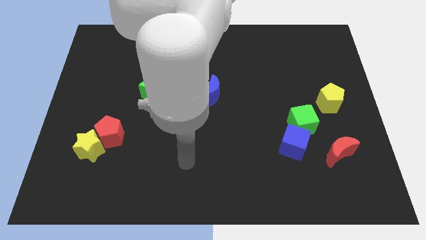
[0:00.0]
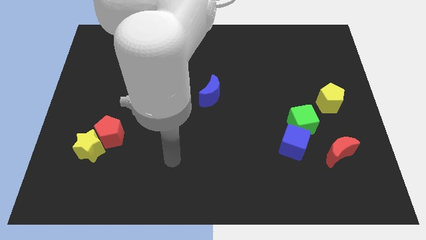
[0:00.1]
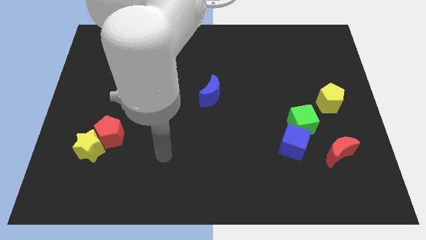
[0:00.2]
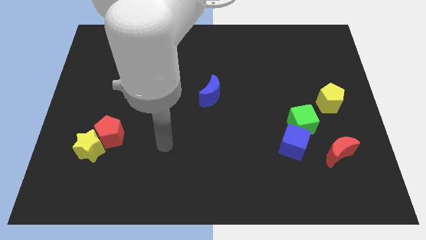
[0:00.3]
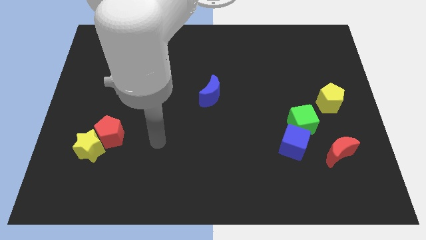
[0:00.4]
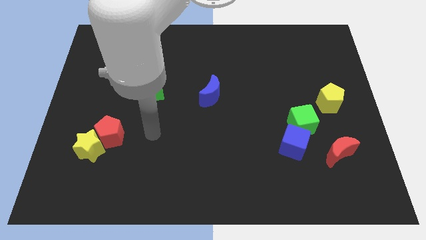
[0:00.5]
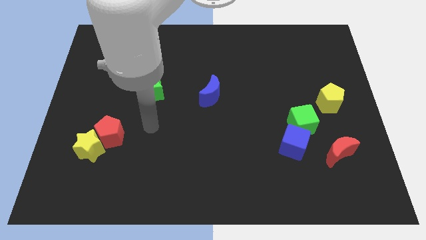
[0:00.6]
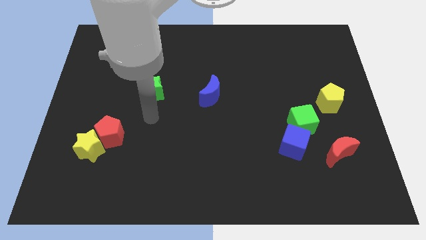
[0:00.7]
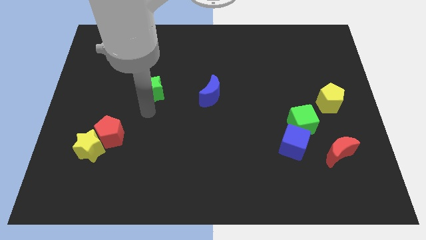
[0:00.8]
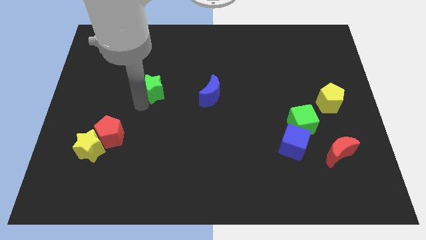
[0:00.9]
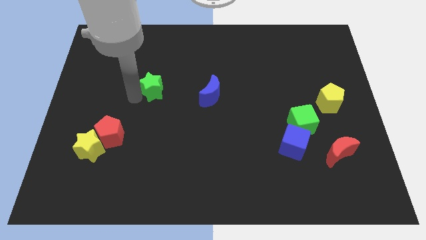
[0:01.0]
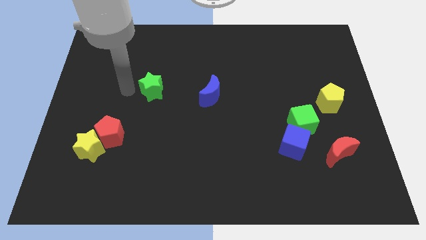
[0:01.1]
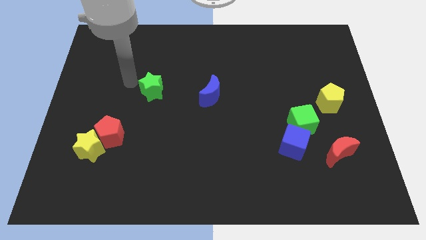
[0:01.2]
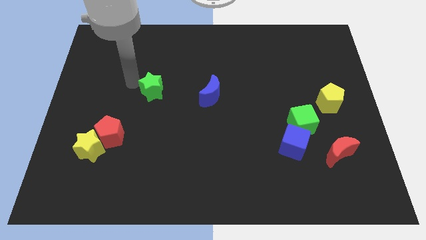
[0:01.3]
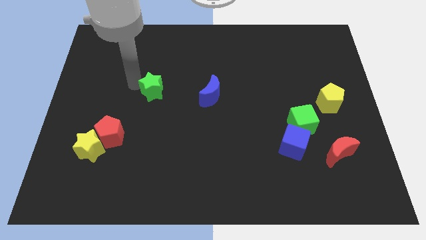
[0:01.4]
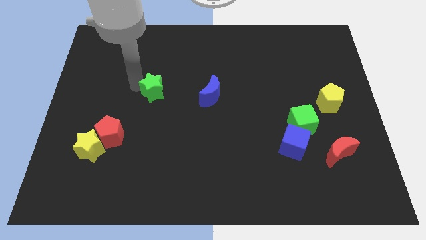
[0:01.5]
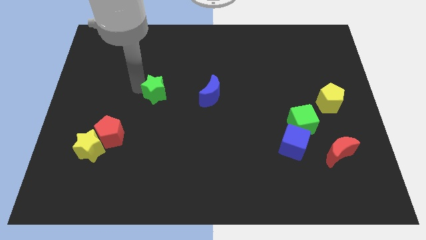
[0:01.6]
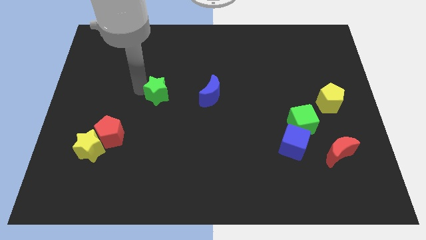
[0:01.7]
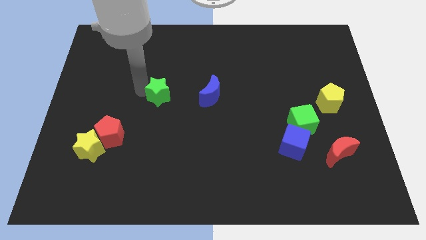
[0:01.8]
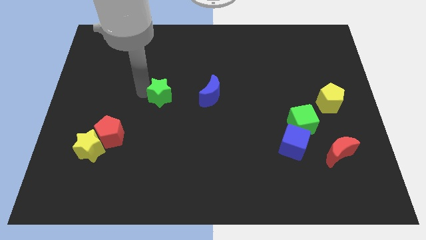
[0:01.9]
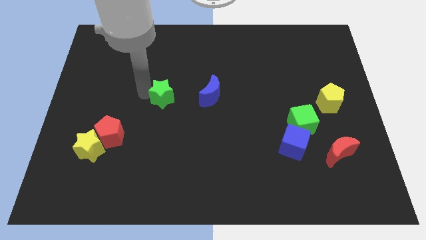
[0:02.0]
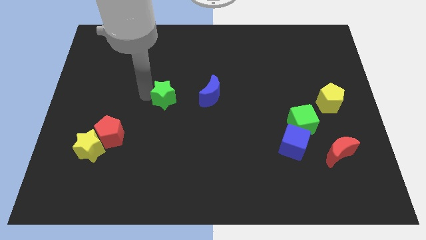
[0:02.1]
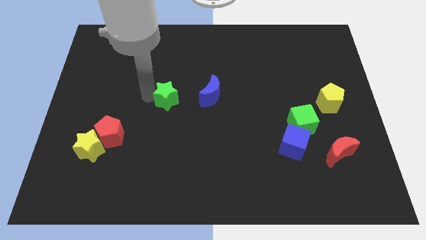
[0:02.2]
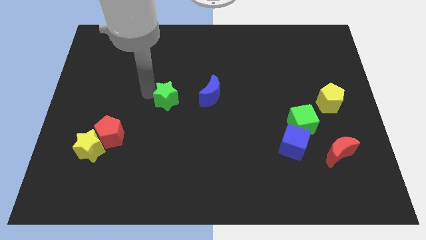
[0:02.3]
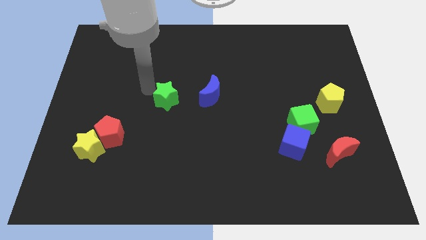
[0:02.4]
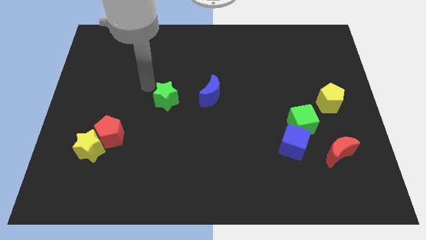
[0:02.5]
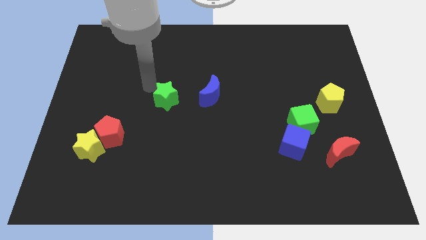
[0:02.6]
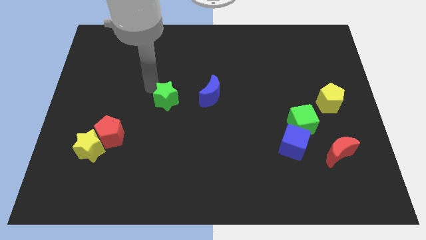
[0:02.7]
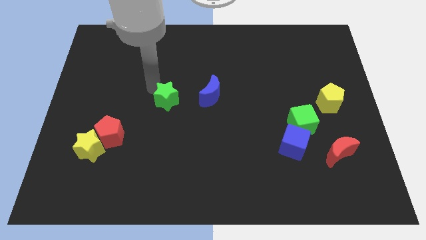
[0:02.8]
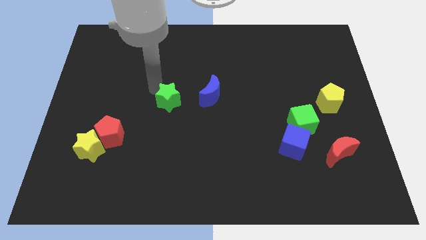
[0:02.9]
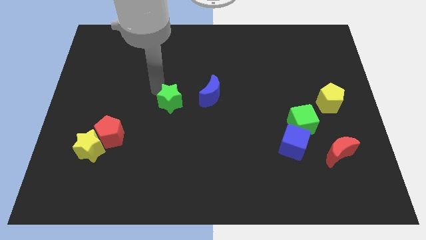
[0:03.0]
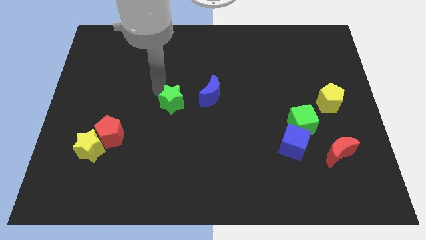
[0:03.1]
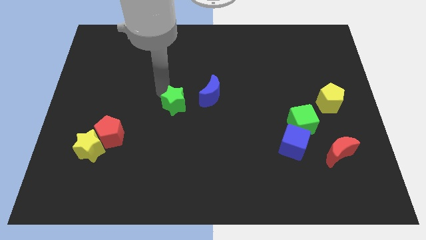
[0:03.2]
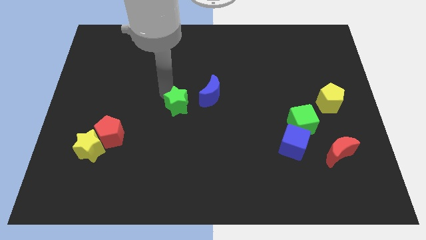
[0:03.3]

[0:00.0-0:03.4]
slightly slide the green star downwards and right

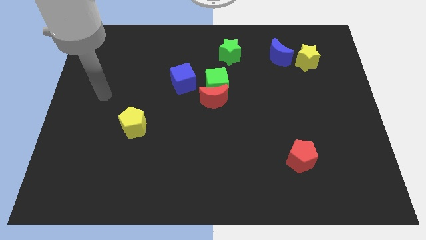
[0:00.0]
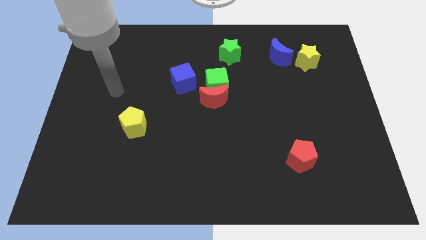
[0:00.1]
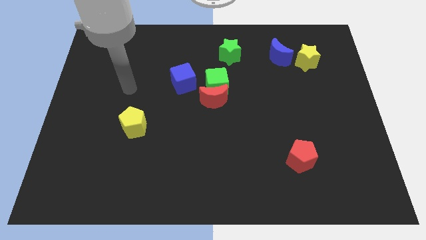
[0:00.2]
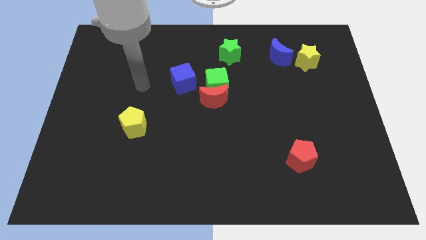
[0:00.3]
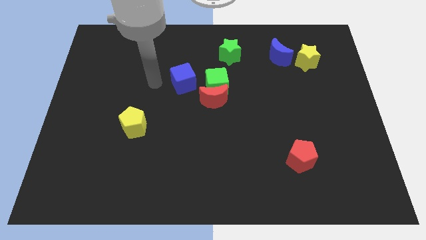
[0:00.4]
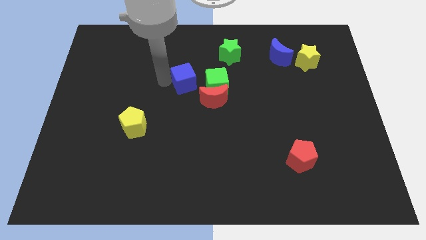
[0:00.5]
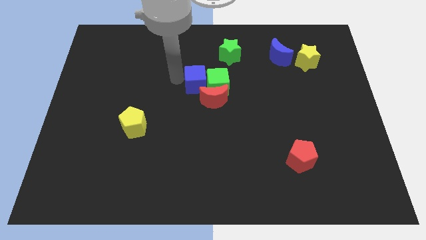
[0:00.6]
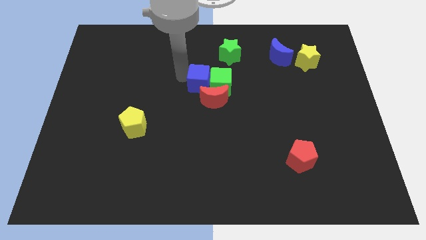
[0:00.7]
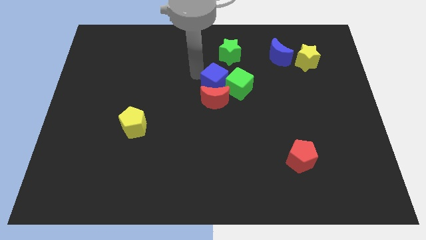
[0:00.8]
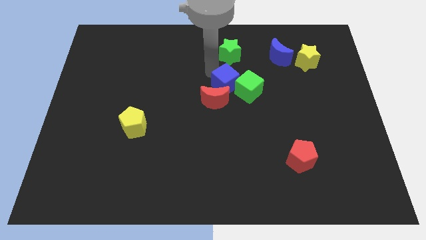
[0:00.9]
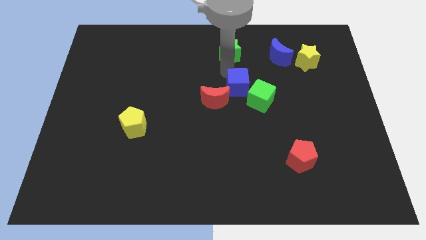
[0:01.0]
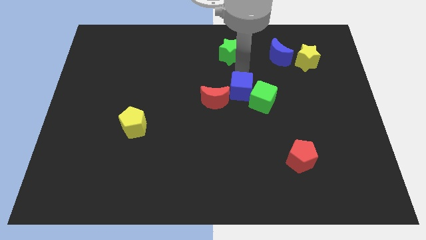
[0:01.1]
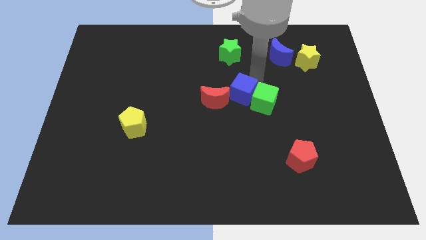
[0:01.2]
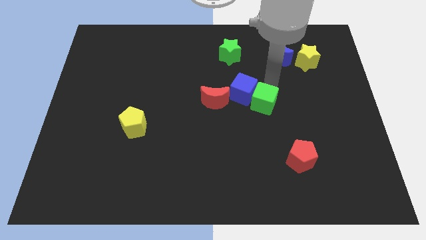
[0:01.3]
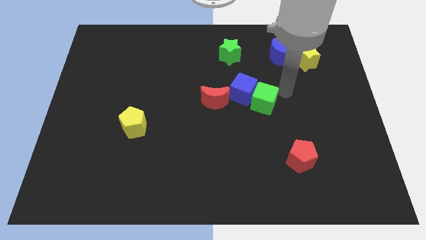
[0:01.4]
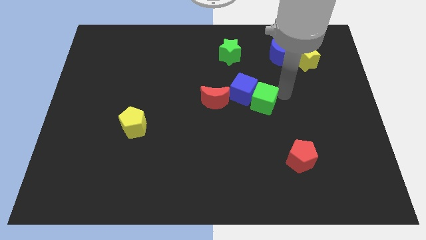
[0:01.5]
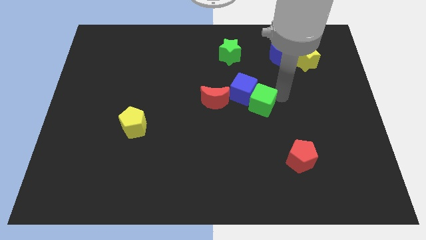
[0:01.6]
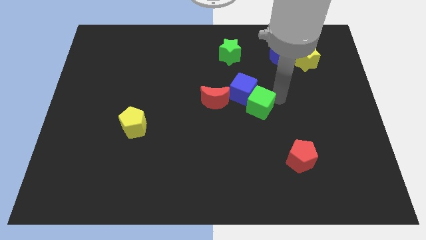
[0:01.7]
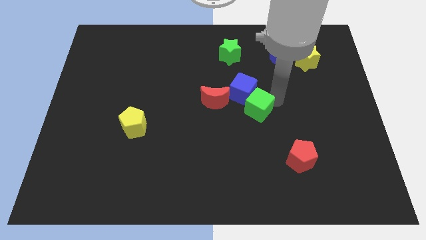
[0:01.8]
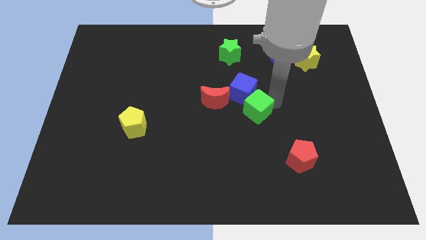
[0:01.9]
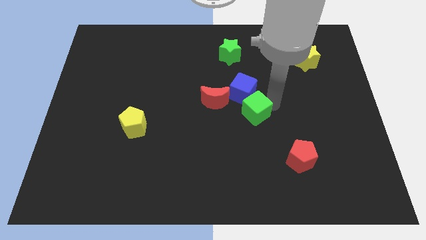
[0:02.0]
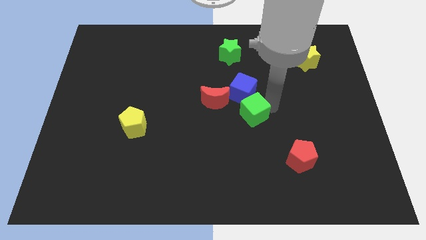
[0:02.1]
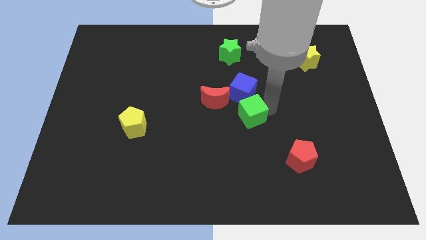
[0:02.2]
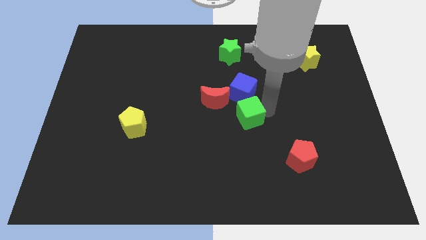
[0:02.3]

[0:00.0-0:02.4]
slide the green cube down a bit

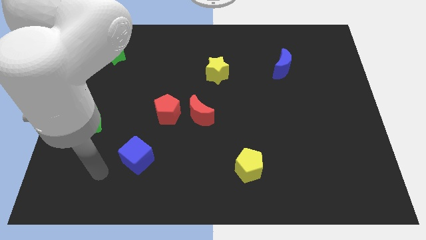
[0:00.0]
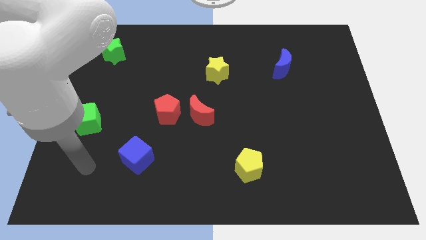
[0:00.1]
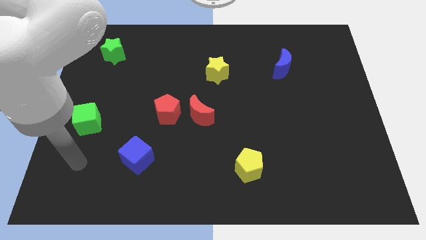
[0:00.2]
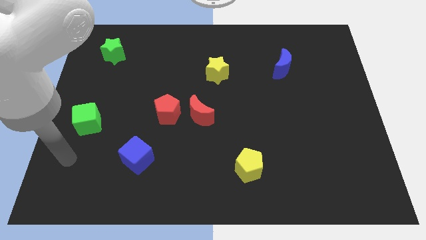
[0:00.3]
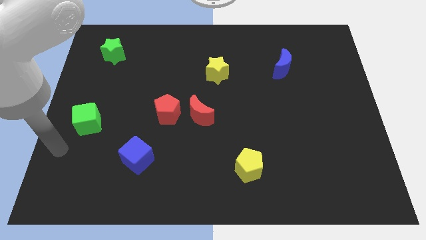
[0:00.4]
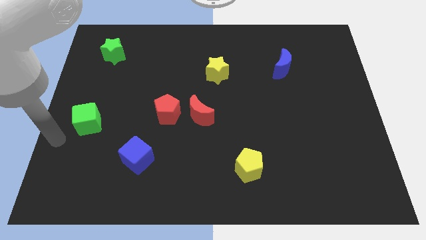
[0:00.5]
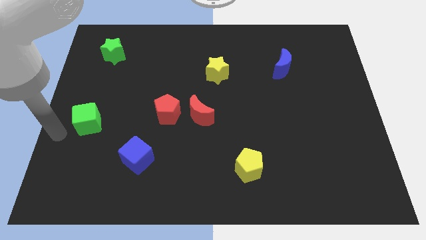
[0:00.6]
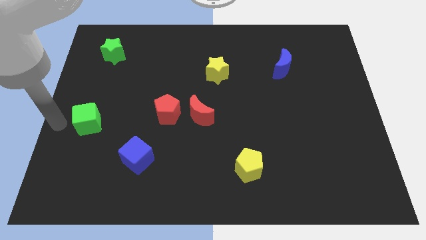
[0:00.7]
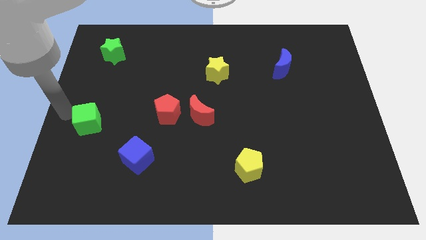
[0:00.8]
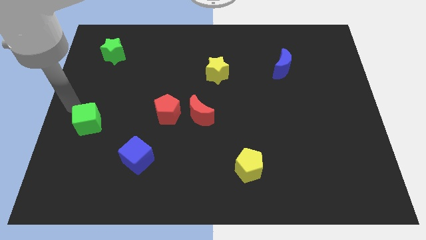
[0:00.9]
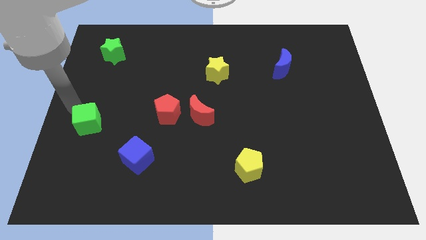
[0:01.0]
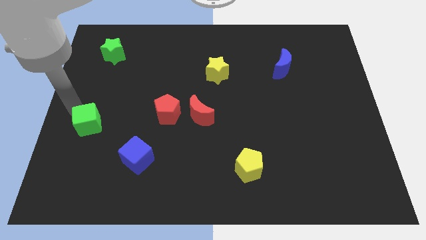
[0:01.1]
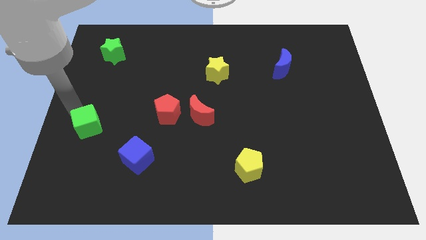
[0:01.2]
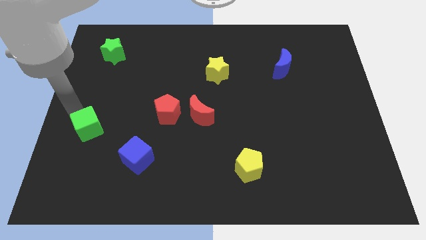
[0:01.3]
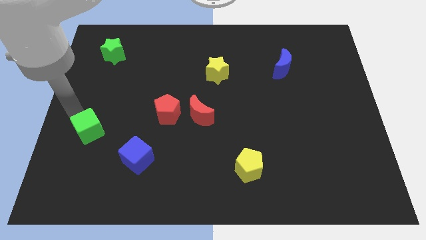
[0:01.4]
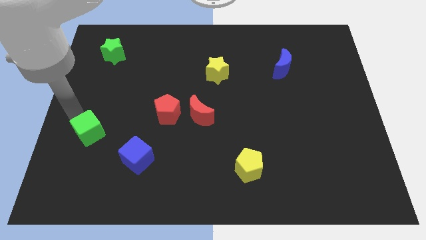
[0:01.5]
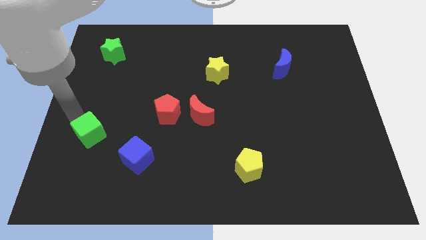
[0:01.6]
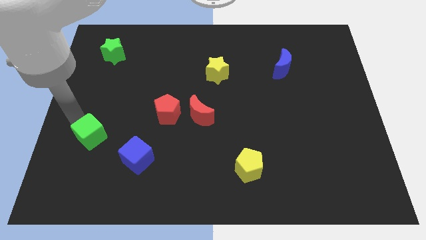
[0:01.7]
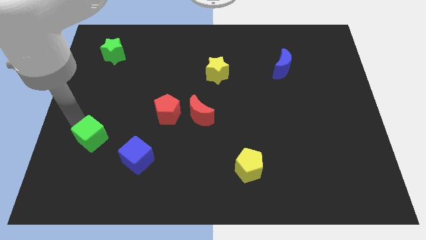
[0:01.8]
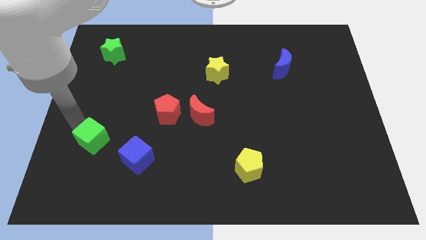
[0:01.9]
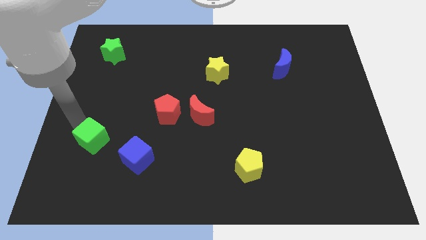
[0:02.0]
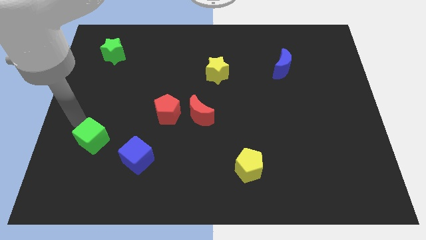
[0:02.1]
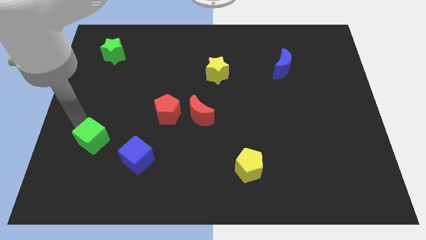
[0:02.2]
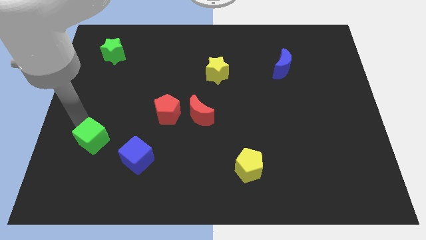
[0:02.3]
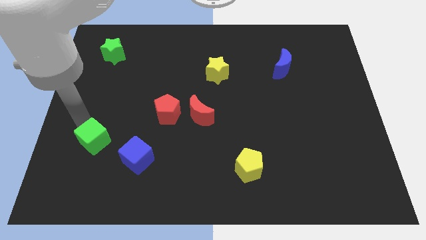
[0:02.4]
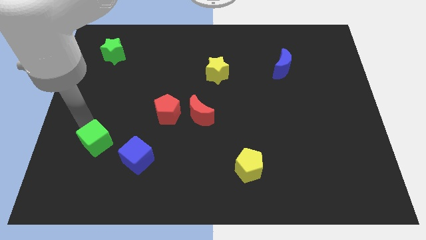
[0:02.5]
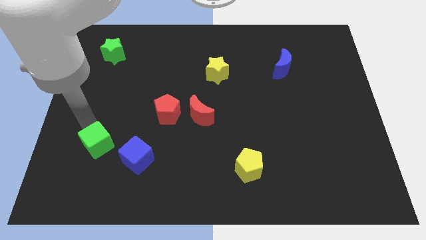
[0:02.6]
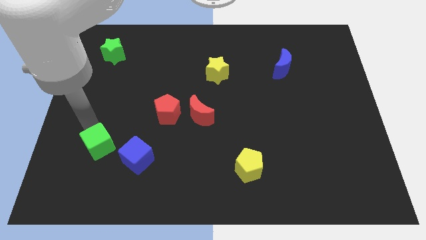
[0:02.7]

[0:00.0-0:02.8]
slide the green cube downwards and to the right diagonally somewhat
